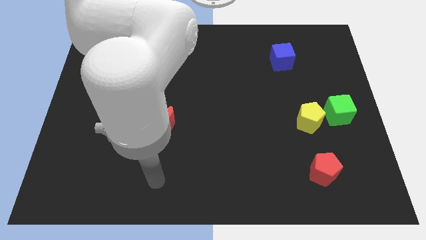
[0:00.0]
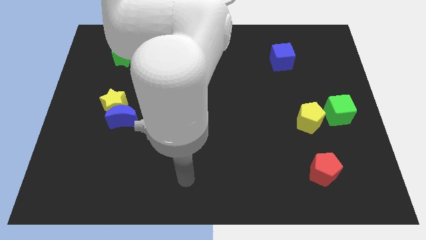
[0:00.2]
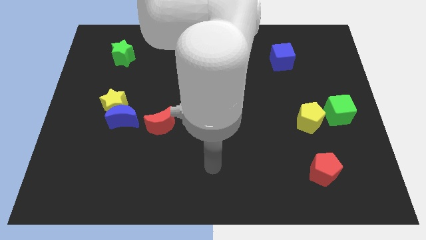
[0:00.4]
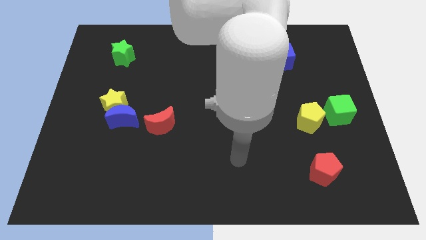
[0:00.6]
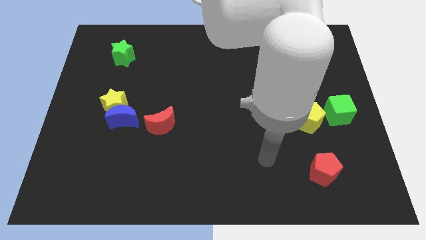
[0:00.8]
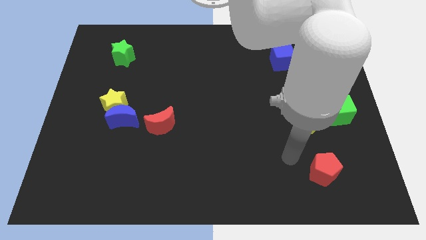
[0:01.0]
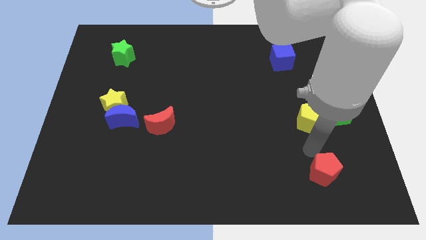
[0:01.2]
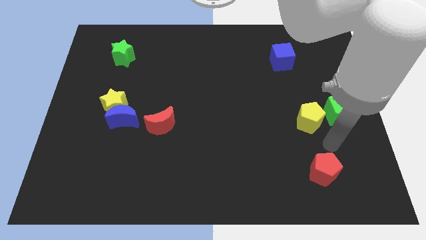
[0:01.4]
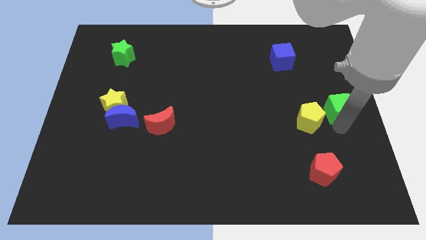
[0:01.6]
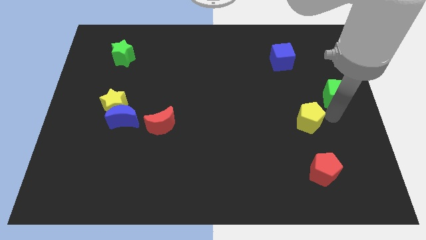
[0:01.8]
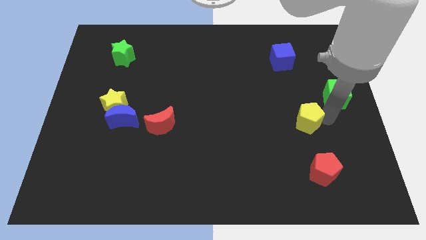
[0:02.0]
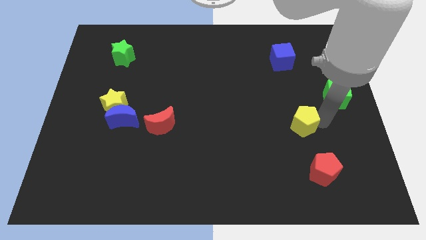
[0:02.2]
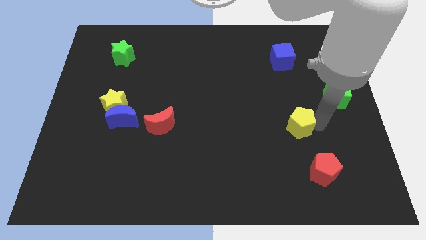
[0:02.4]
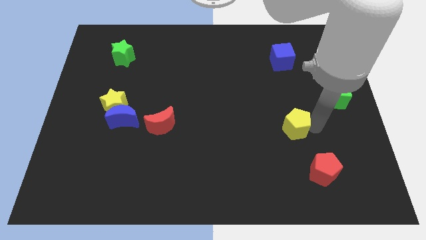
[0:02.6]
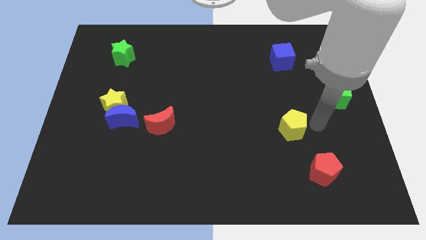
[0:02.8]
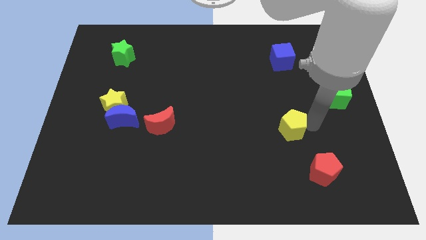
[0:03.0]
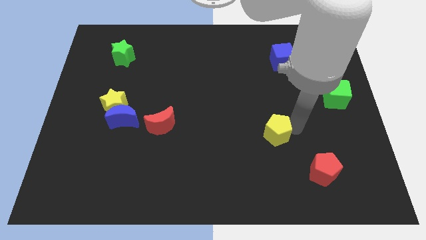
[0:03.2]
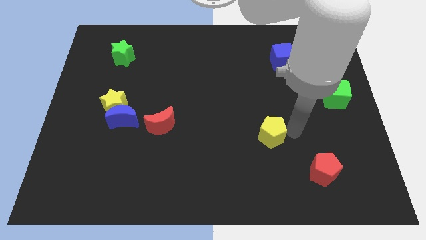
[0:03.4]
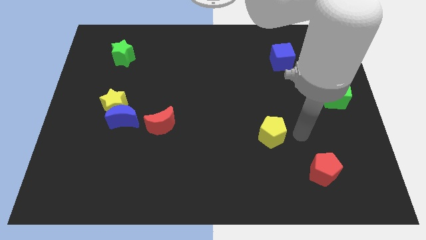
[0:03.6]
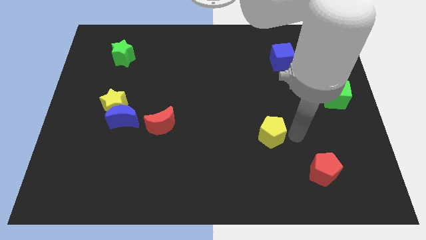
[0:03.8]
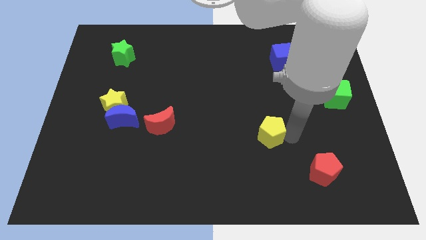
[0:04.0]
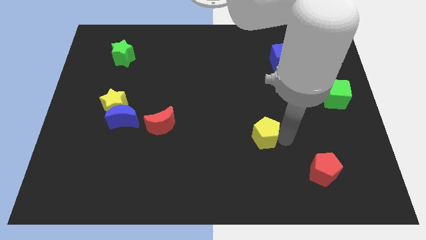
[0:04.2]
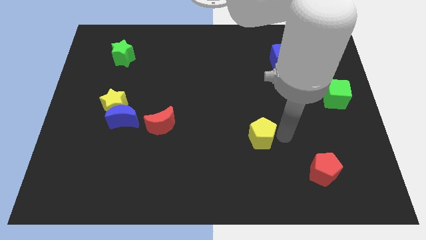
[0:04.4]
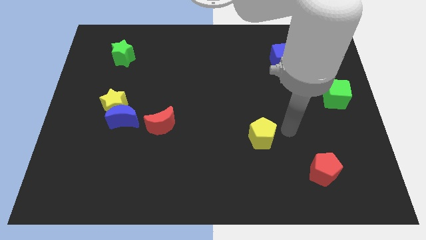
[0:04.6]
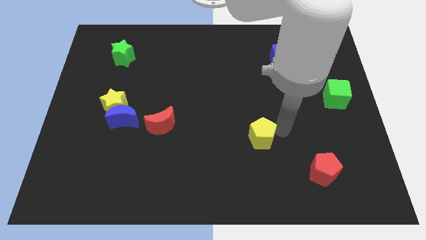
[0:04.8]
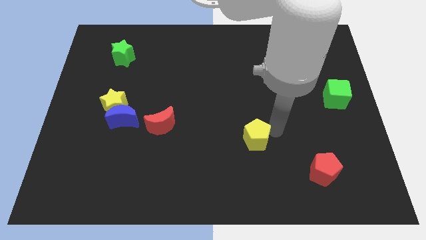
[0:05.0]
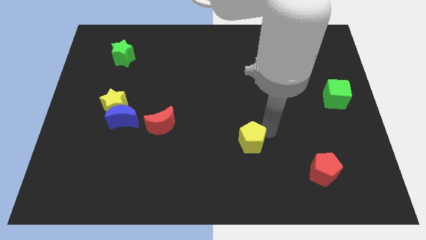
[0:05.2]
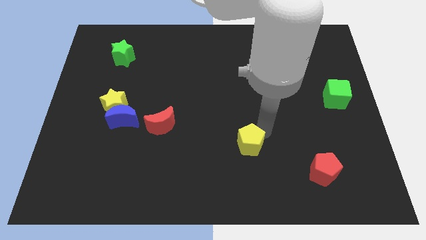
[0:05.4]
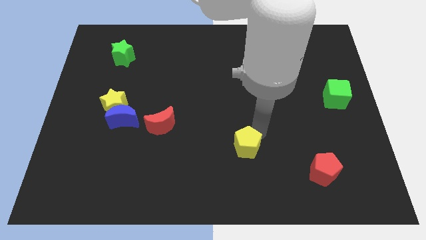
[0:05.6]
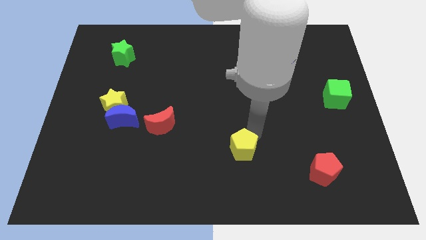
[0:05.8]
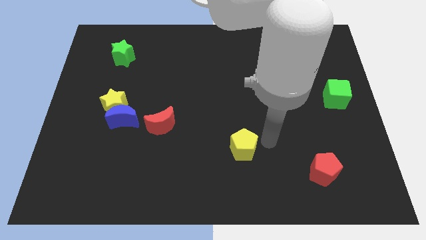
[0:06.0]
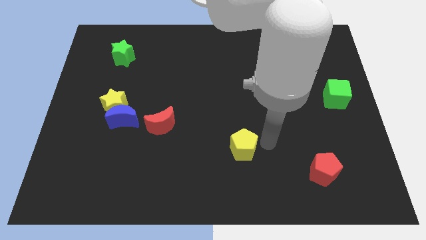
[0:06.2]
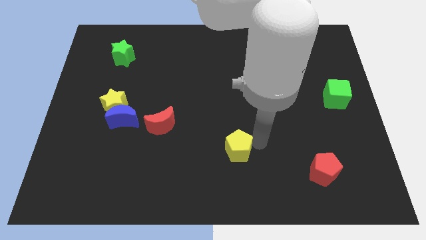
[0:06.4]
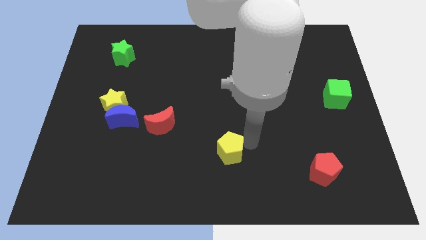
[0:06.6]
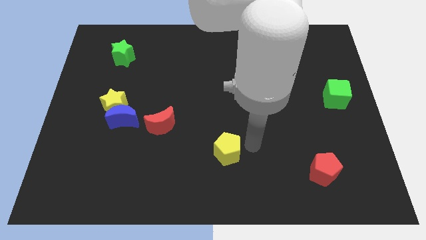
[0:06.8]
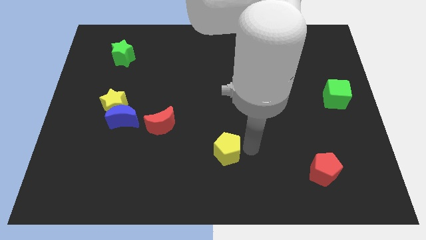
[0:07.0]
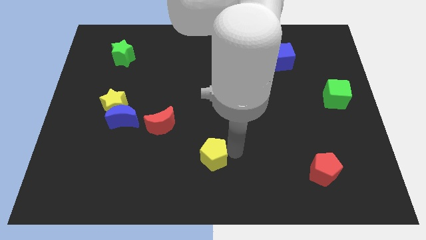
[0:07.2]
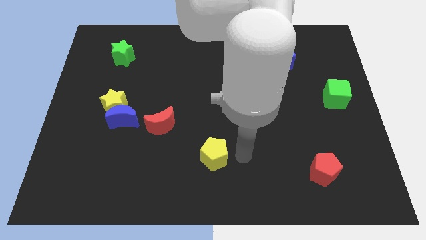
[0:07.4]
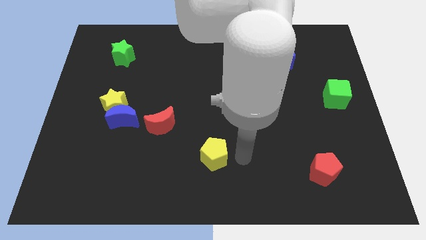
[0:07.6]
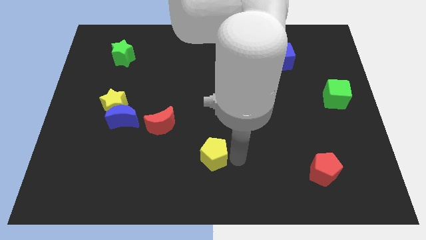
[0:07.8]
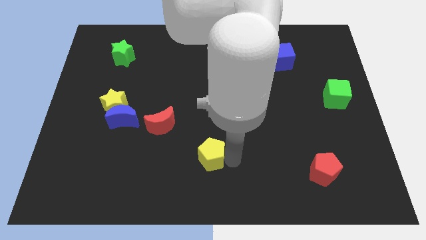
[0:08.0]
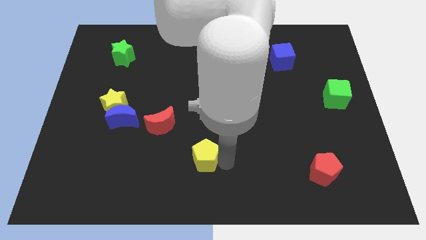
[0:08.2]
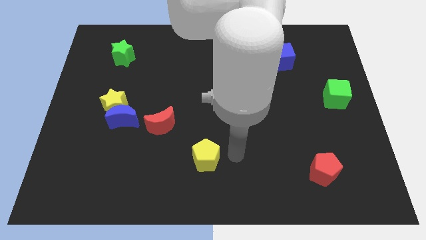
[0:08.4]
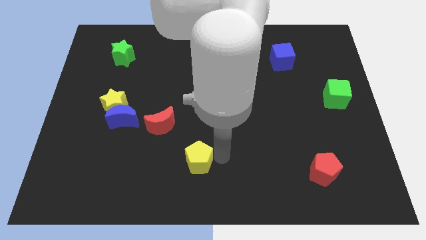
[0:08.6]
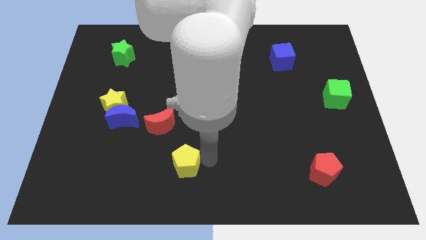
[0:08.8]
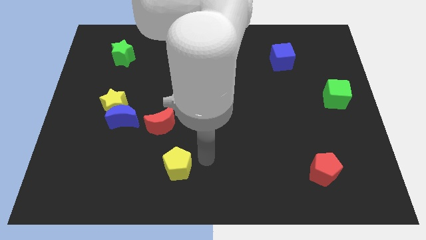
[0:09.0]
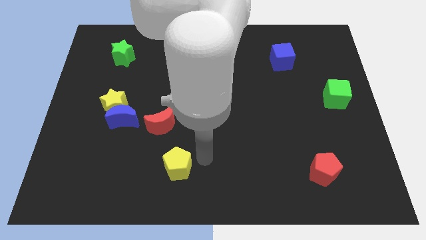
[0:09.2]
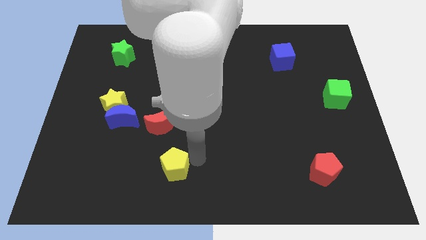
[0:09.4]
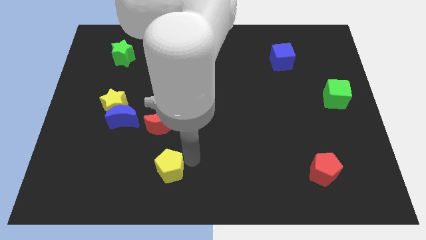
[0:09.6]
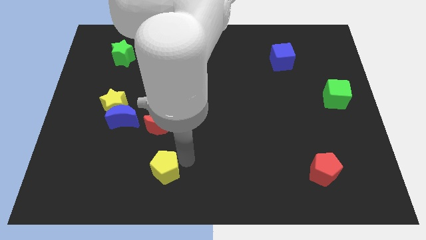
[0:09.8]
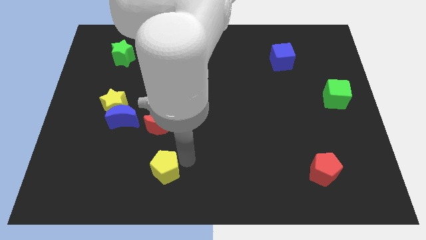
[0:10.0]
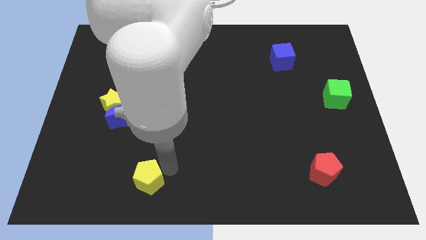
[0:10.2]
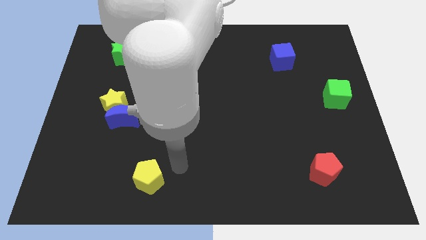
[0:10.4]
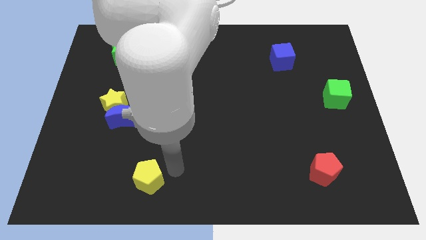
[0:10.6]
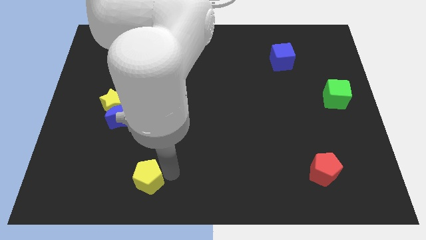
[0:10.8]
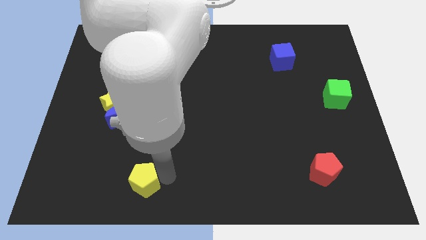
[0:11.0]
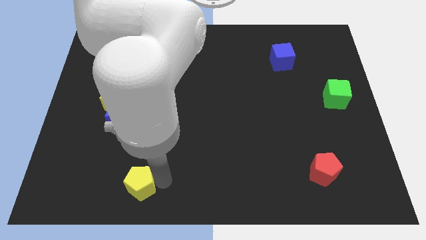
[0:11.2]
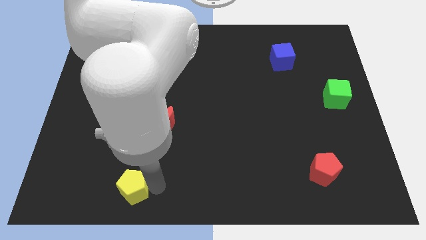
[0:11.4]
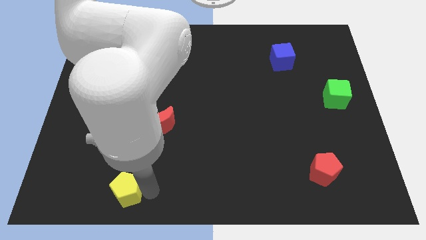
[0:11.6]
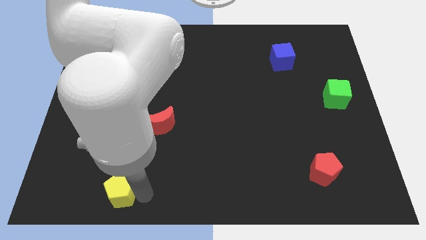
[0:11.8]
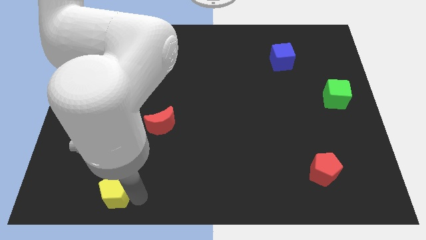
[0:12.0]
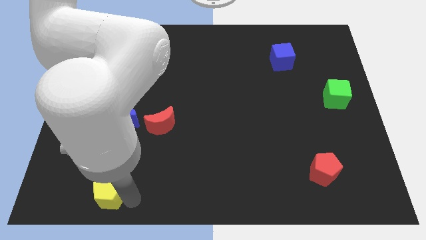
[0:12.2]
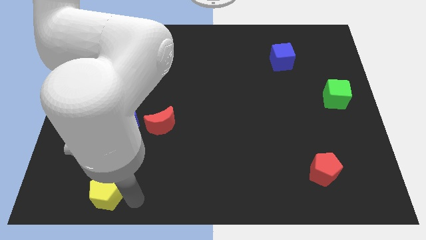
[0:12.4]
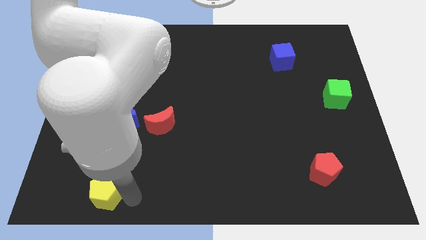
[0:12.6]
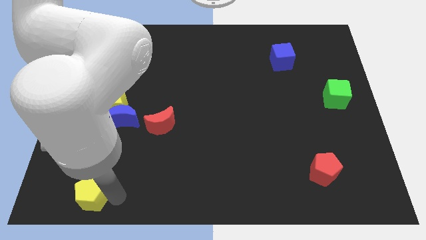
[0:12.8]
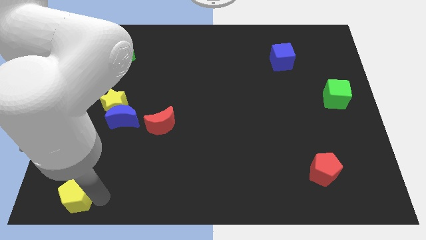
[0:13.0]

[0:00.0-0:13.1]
slide the yellow pentagon to the bottom left corner
